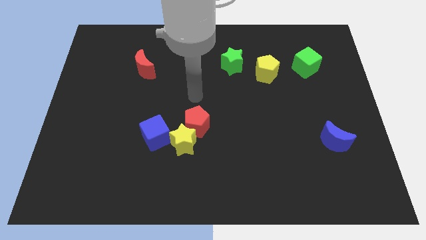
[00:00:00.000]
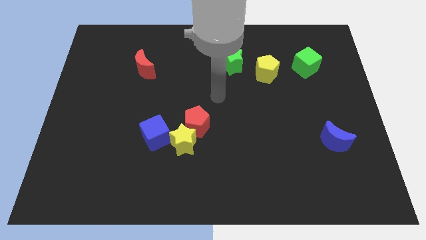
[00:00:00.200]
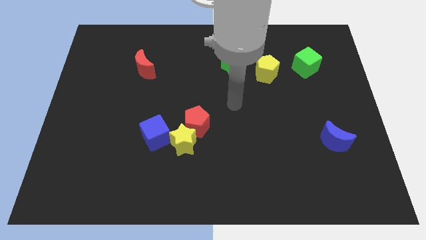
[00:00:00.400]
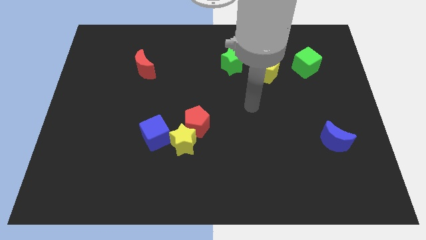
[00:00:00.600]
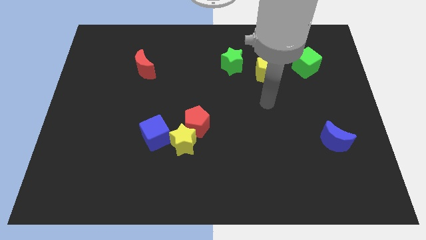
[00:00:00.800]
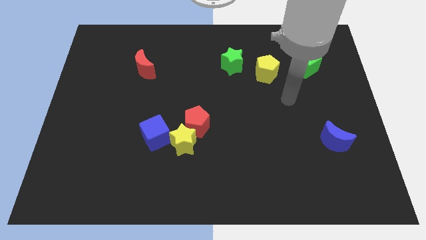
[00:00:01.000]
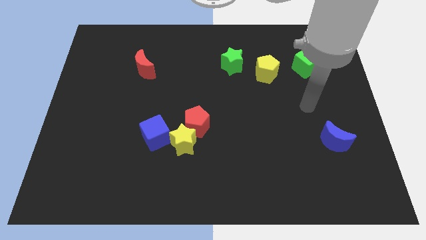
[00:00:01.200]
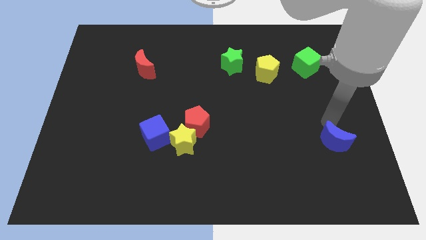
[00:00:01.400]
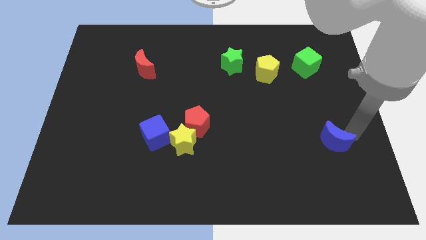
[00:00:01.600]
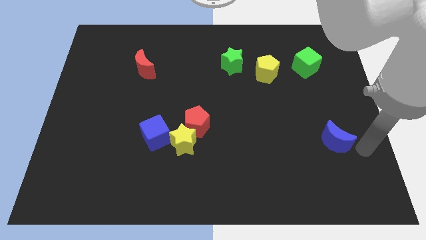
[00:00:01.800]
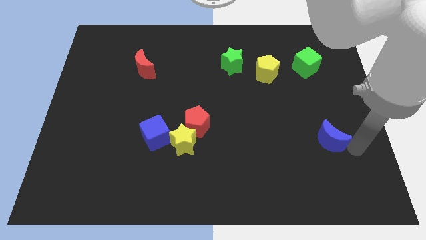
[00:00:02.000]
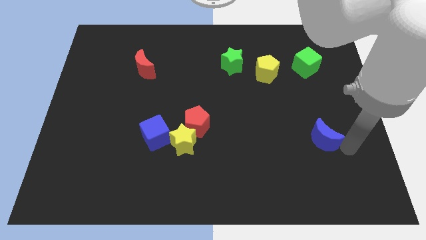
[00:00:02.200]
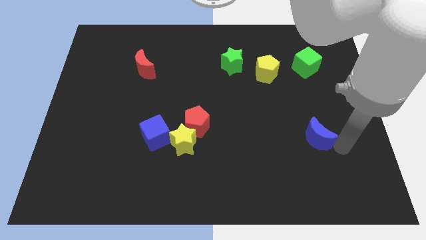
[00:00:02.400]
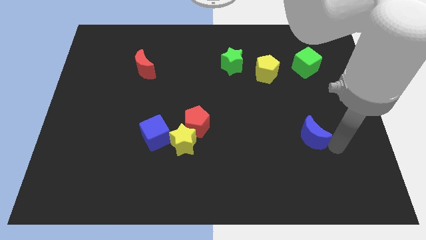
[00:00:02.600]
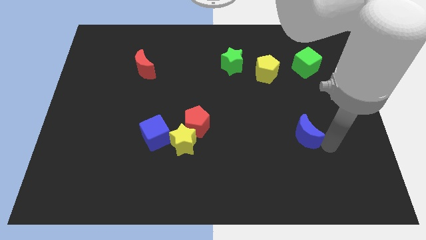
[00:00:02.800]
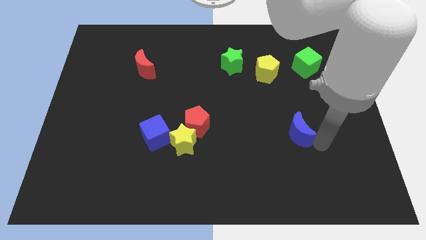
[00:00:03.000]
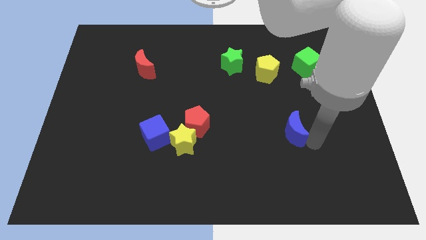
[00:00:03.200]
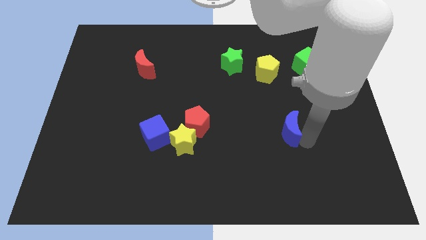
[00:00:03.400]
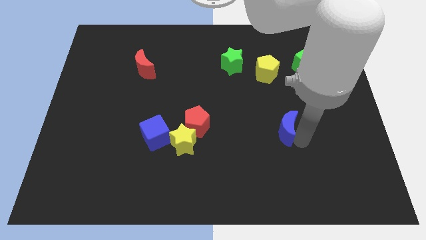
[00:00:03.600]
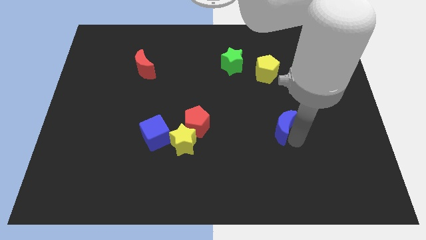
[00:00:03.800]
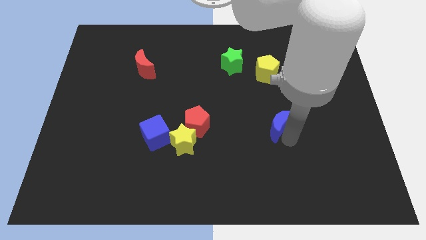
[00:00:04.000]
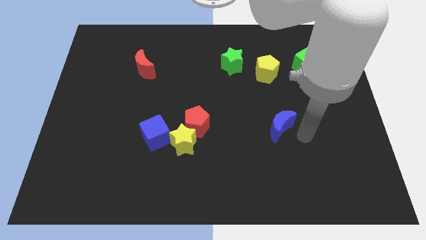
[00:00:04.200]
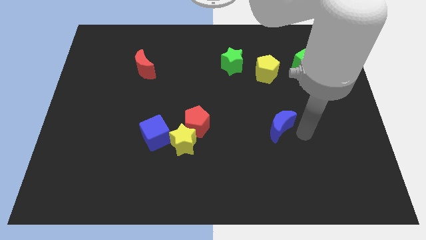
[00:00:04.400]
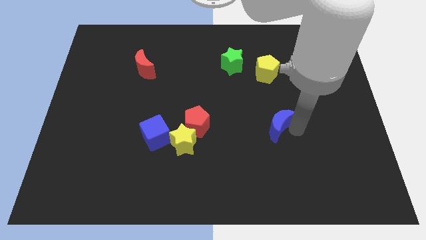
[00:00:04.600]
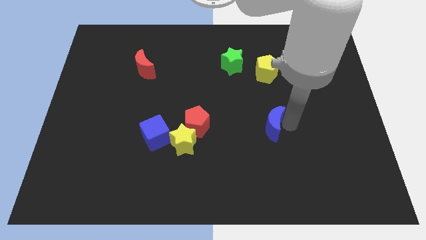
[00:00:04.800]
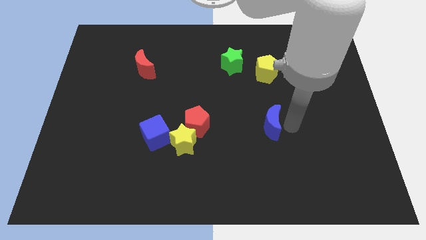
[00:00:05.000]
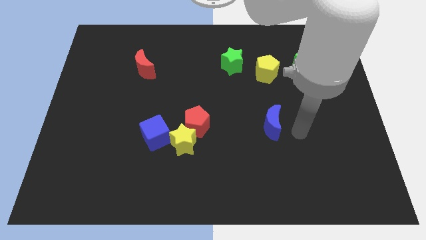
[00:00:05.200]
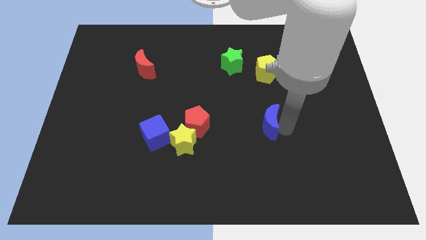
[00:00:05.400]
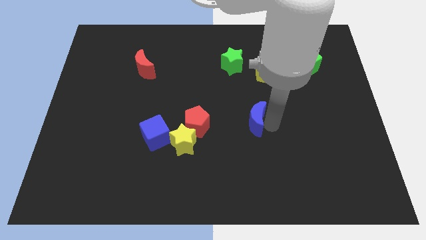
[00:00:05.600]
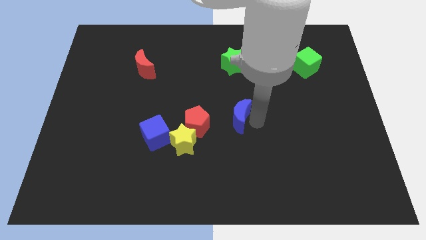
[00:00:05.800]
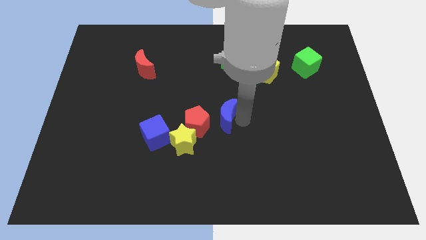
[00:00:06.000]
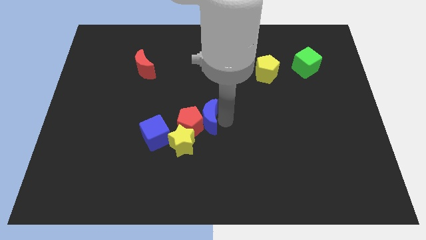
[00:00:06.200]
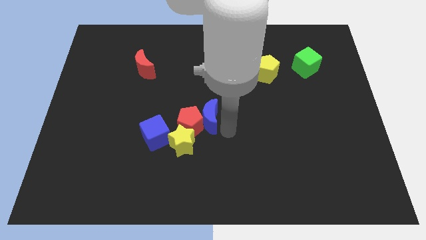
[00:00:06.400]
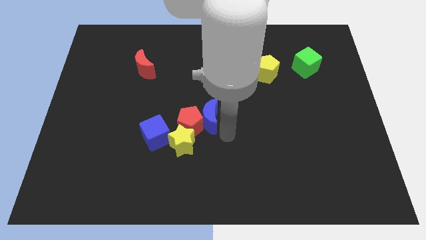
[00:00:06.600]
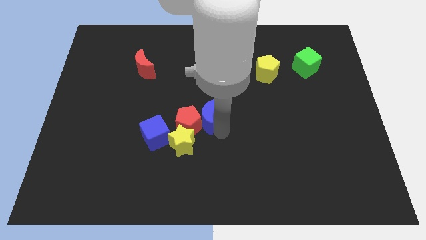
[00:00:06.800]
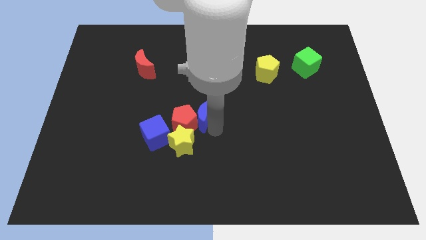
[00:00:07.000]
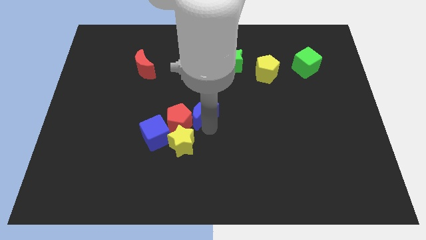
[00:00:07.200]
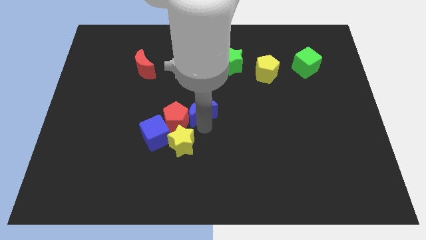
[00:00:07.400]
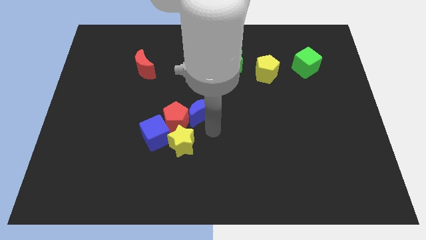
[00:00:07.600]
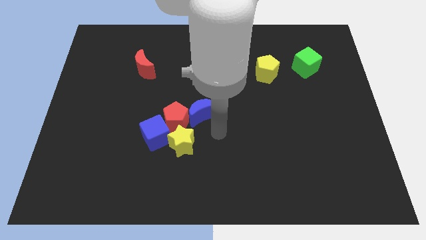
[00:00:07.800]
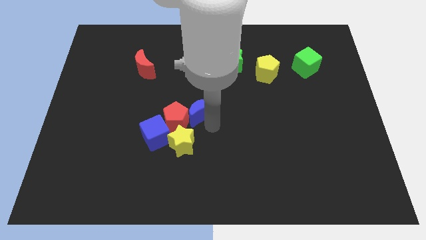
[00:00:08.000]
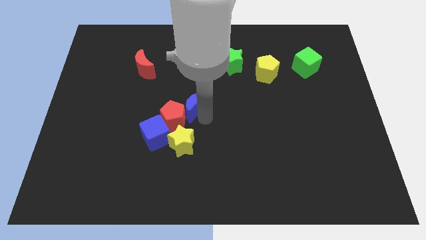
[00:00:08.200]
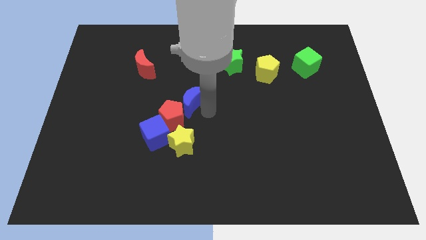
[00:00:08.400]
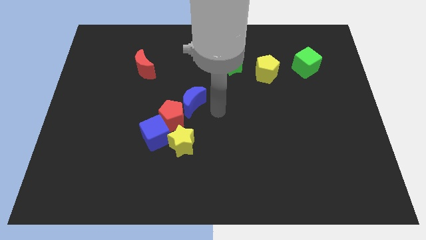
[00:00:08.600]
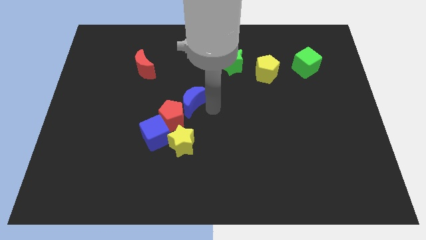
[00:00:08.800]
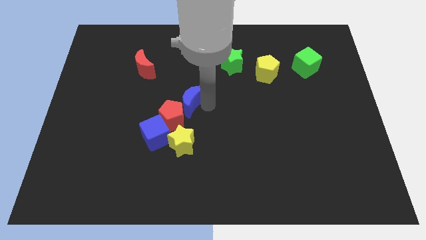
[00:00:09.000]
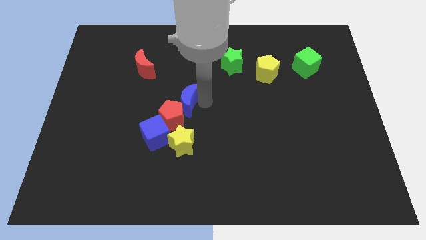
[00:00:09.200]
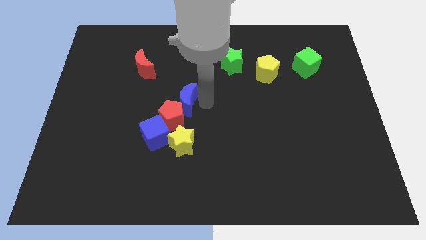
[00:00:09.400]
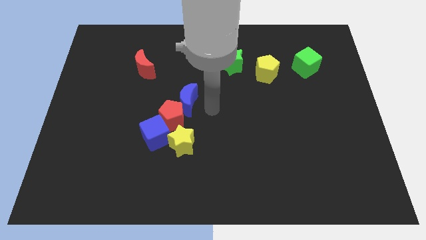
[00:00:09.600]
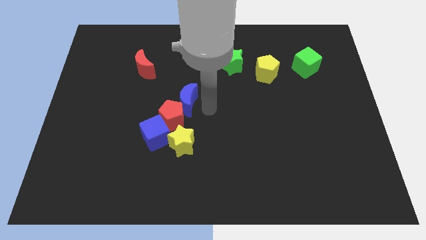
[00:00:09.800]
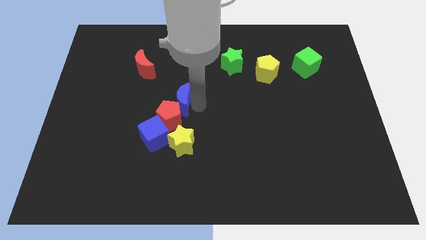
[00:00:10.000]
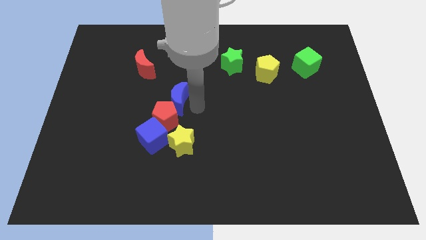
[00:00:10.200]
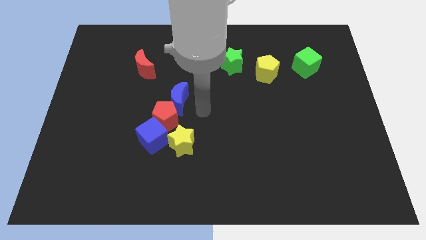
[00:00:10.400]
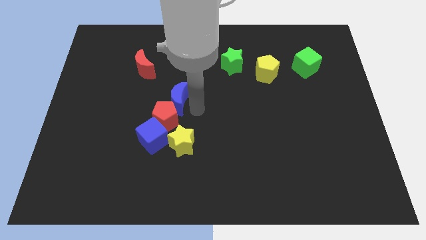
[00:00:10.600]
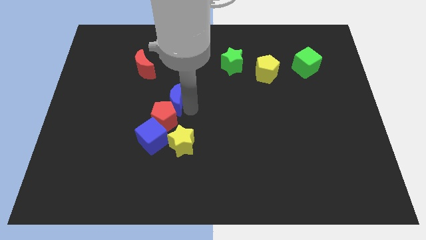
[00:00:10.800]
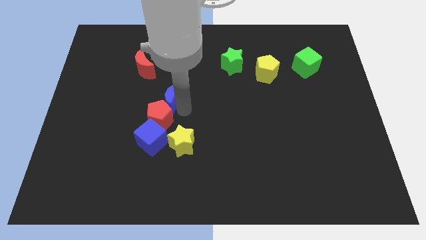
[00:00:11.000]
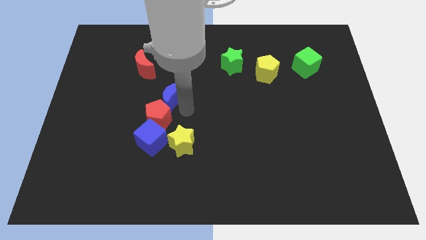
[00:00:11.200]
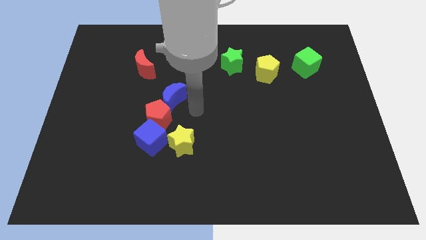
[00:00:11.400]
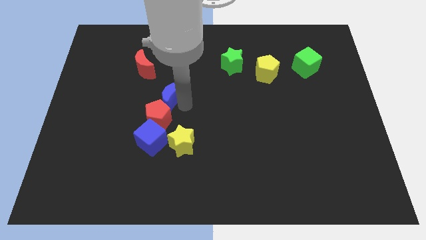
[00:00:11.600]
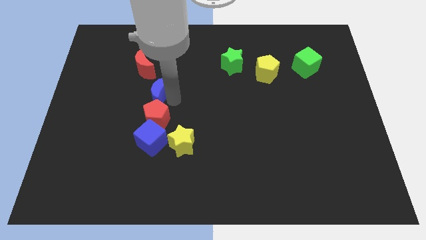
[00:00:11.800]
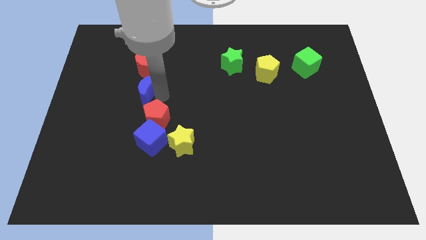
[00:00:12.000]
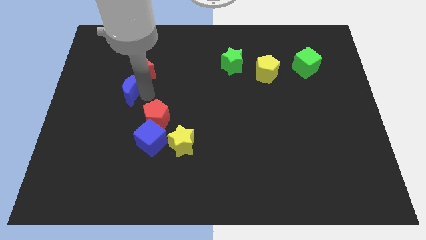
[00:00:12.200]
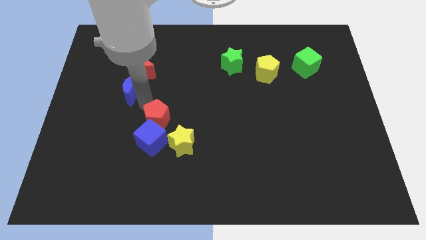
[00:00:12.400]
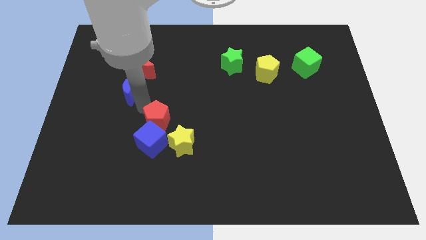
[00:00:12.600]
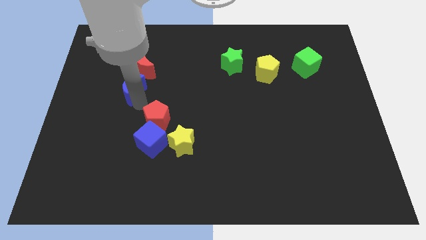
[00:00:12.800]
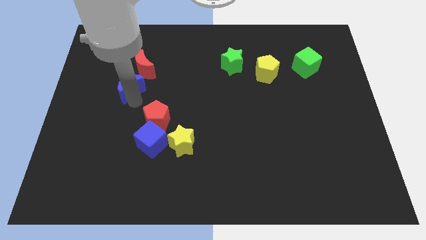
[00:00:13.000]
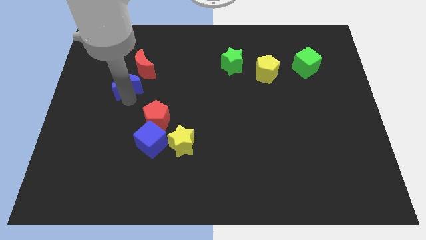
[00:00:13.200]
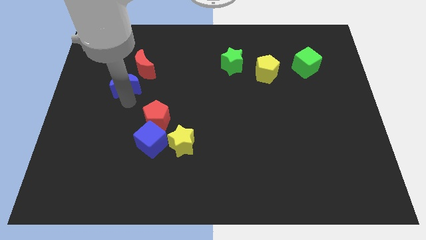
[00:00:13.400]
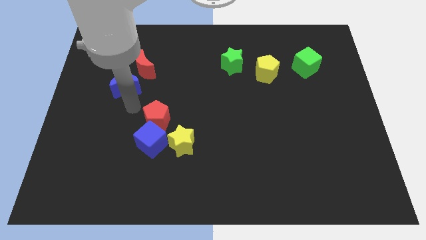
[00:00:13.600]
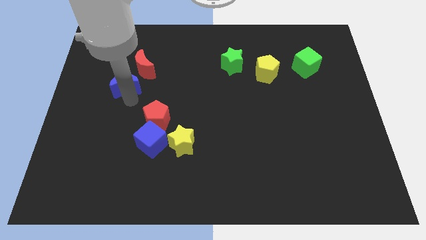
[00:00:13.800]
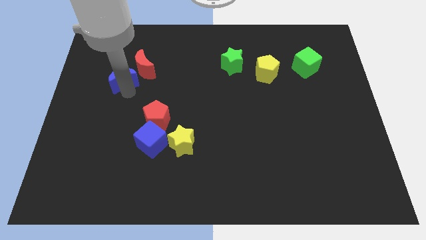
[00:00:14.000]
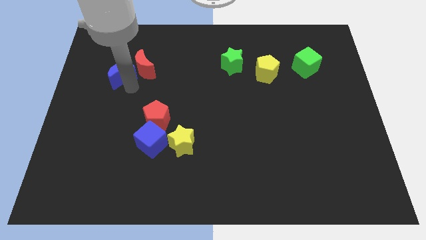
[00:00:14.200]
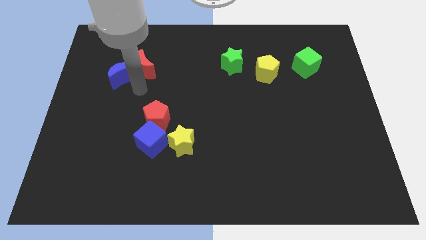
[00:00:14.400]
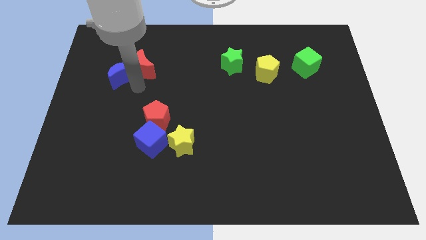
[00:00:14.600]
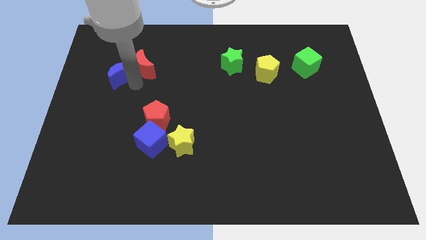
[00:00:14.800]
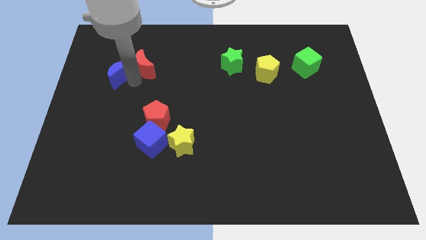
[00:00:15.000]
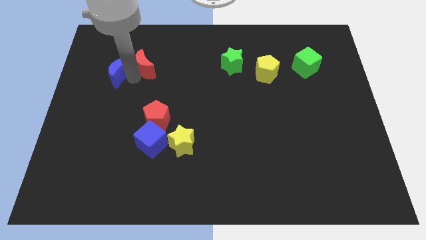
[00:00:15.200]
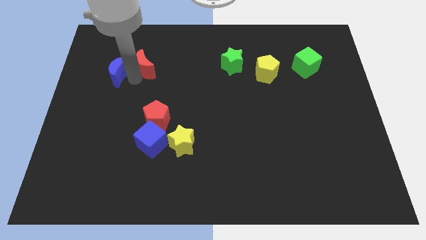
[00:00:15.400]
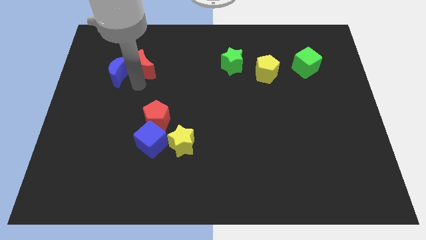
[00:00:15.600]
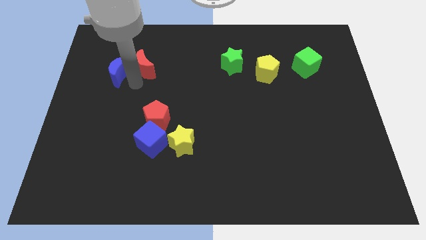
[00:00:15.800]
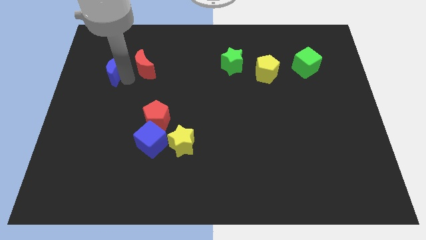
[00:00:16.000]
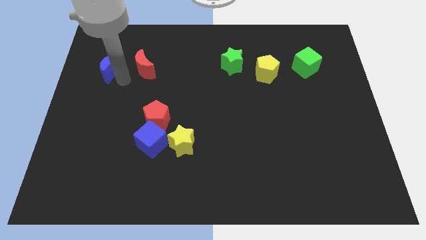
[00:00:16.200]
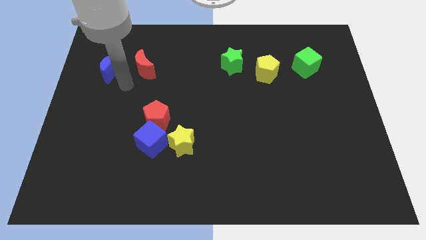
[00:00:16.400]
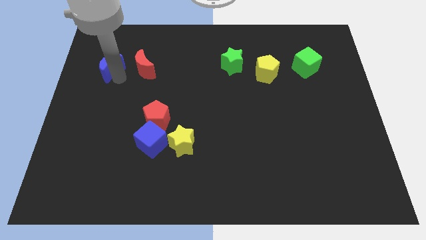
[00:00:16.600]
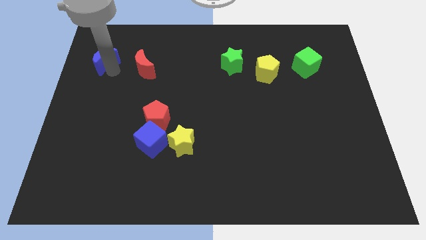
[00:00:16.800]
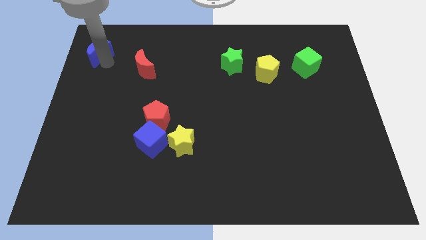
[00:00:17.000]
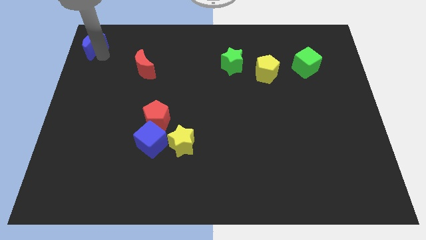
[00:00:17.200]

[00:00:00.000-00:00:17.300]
put the blue moon to the top left corner
